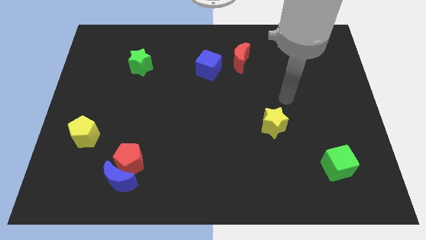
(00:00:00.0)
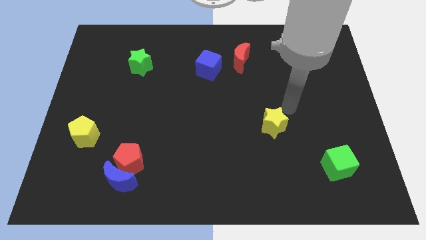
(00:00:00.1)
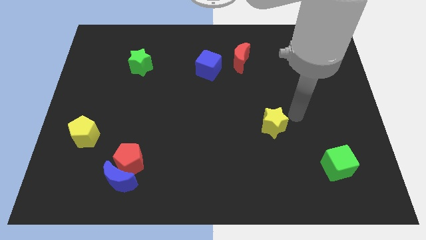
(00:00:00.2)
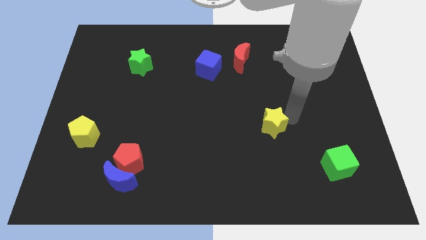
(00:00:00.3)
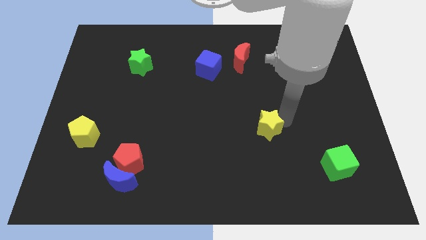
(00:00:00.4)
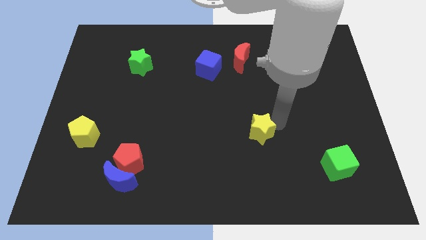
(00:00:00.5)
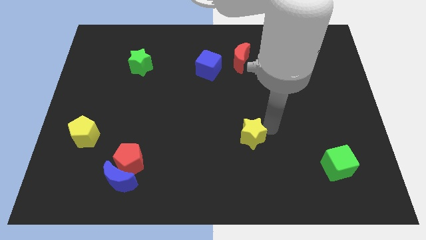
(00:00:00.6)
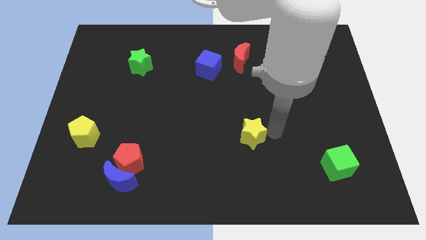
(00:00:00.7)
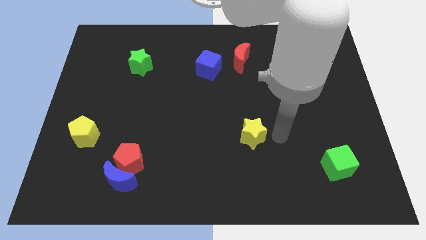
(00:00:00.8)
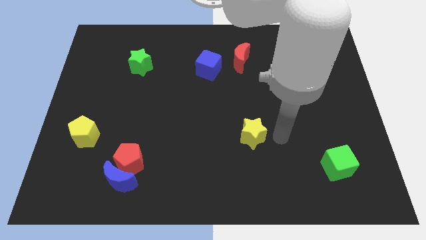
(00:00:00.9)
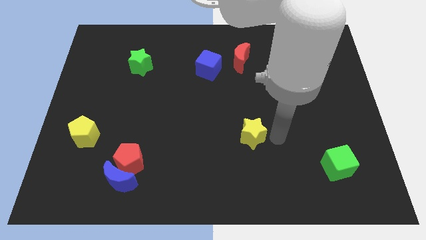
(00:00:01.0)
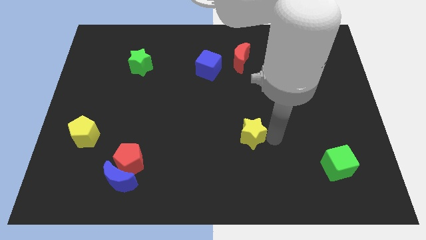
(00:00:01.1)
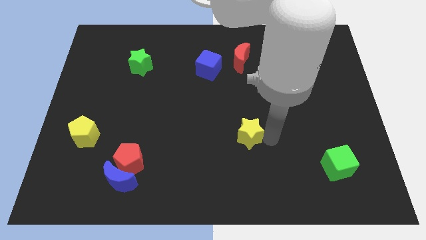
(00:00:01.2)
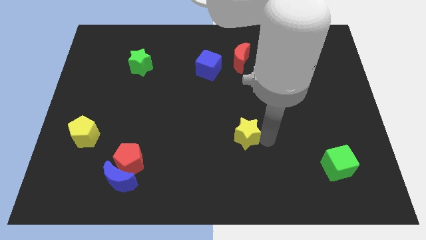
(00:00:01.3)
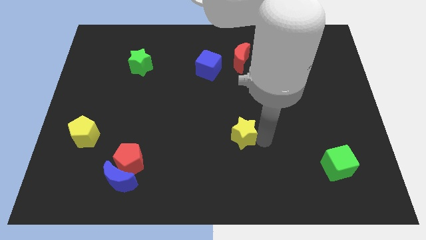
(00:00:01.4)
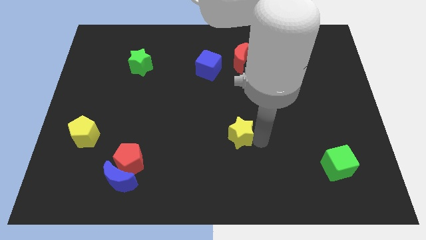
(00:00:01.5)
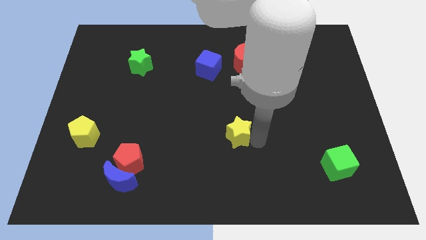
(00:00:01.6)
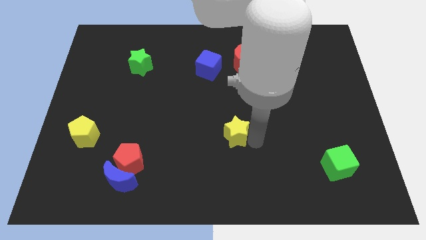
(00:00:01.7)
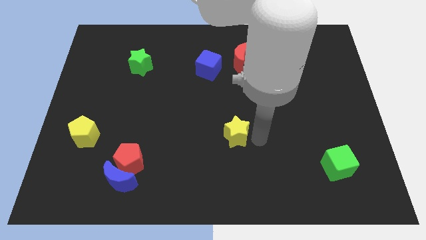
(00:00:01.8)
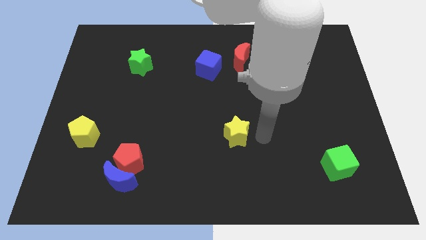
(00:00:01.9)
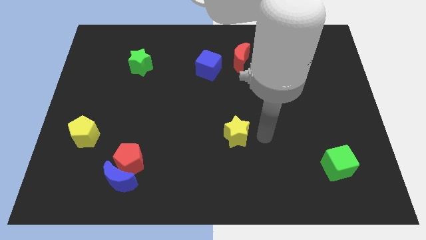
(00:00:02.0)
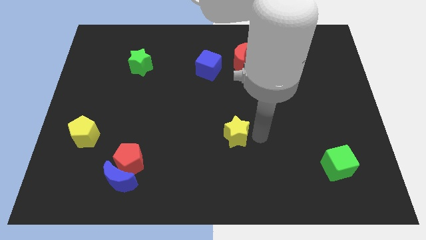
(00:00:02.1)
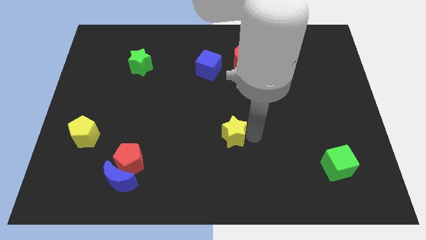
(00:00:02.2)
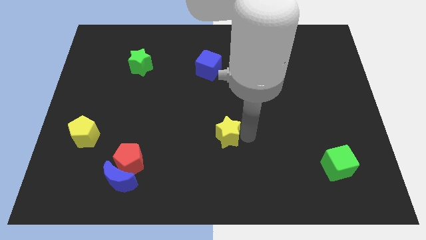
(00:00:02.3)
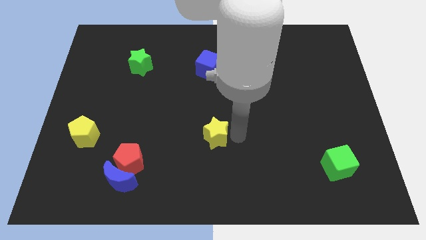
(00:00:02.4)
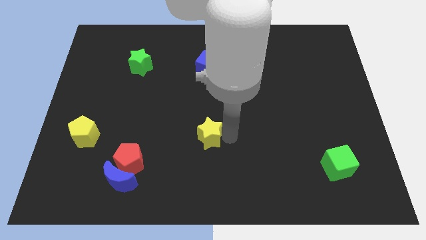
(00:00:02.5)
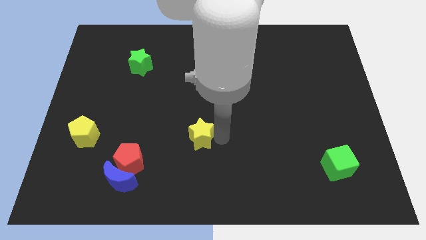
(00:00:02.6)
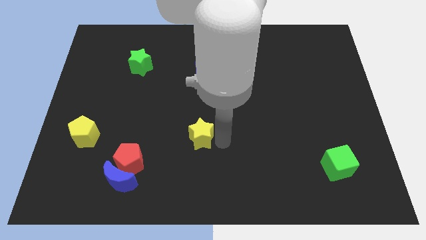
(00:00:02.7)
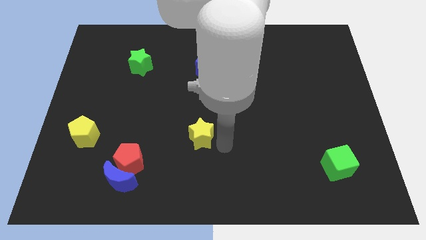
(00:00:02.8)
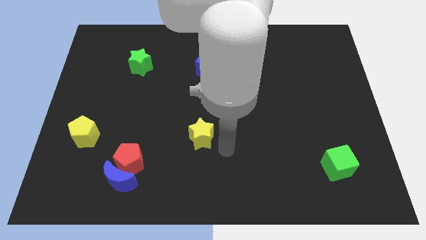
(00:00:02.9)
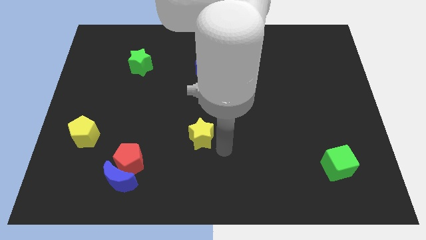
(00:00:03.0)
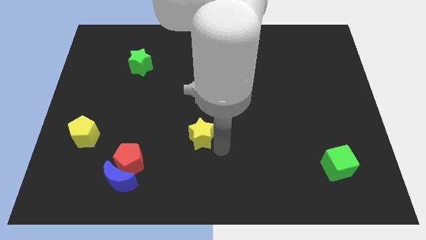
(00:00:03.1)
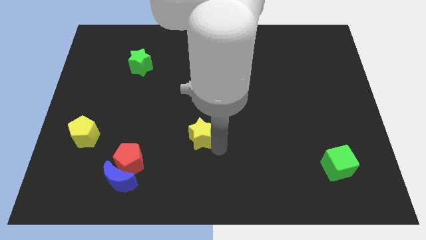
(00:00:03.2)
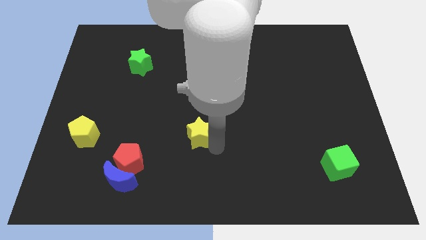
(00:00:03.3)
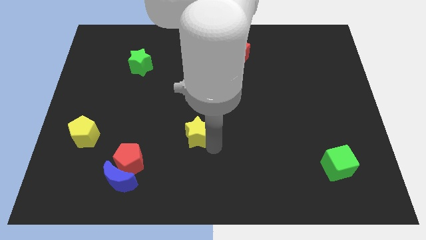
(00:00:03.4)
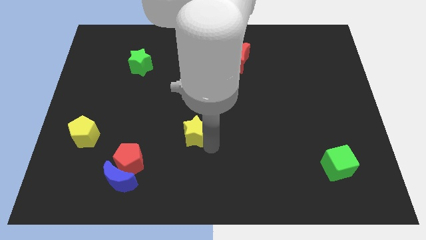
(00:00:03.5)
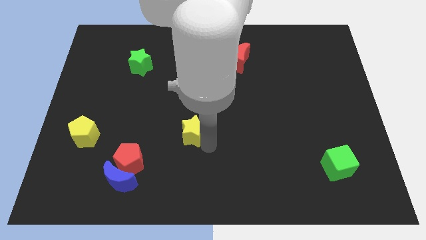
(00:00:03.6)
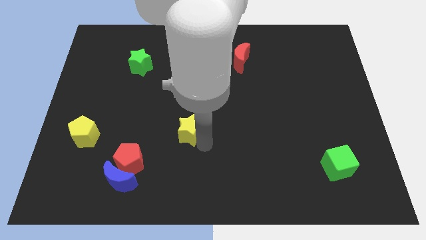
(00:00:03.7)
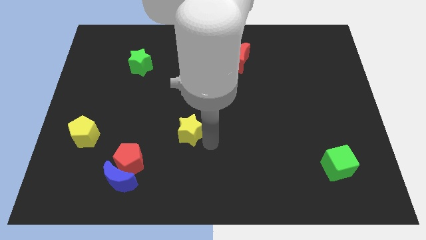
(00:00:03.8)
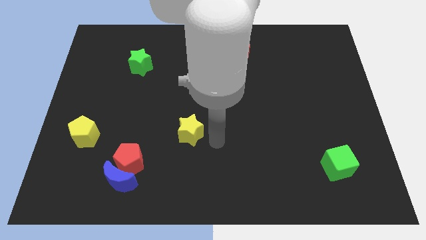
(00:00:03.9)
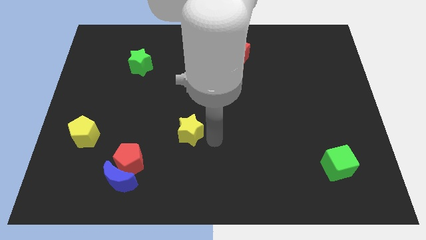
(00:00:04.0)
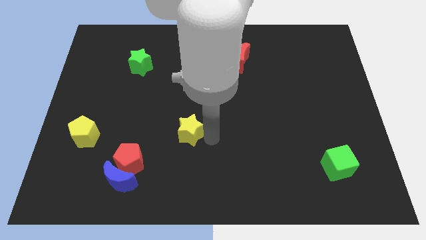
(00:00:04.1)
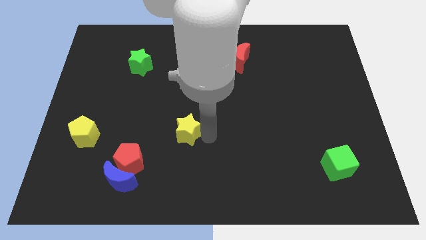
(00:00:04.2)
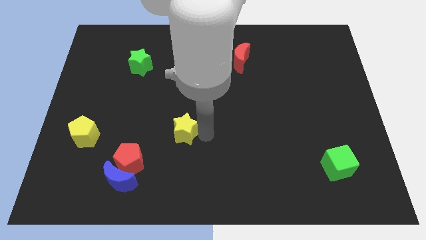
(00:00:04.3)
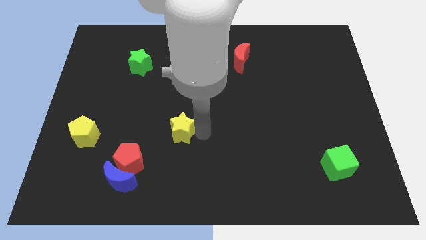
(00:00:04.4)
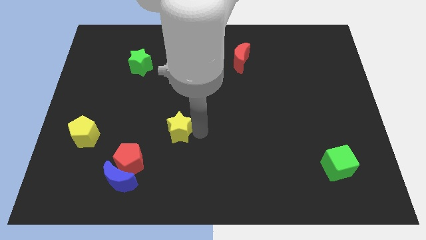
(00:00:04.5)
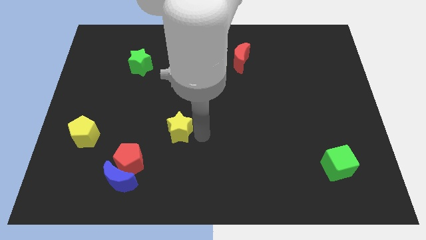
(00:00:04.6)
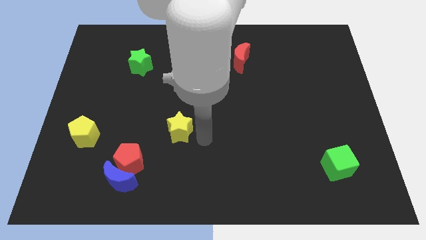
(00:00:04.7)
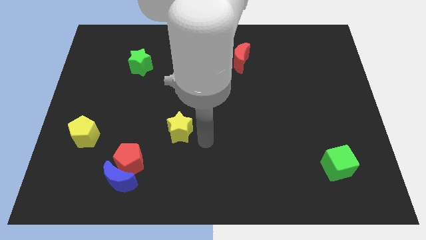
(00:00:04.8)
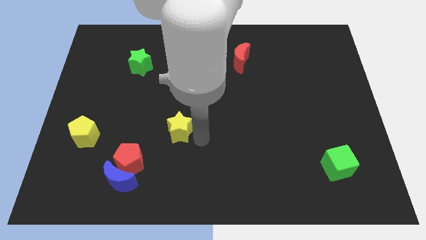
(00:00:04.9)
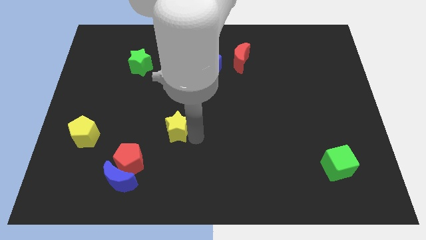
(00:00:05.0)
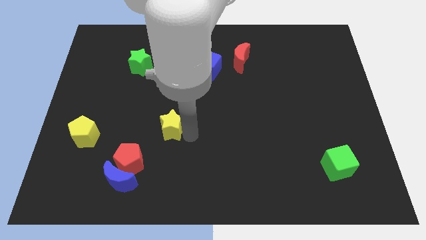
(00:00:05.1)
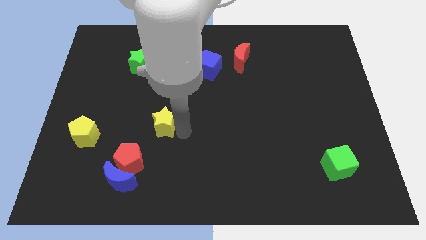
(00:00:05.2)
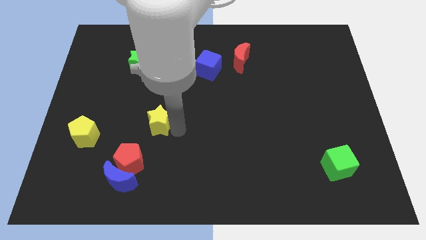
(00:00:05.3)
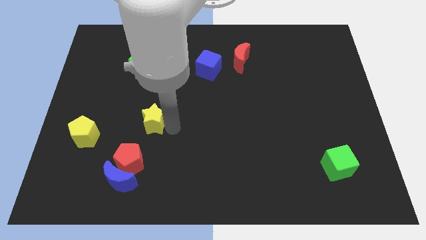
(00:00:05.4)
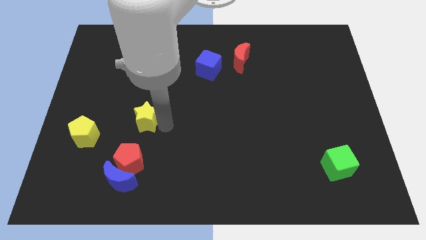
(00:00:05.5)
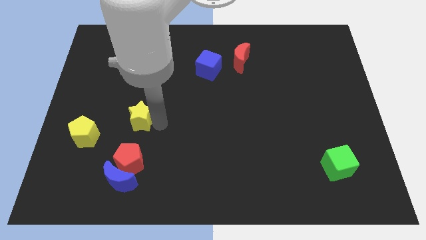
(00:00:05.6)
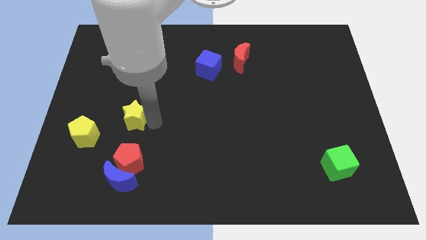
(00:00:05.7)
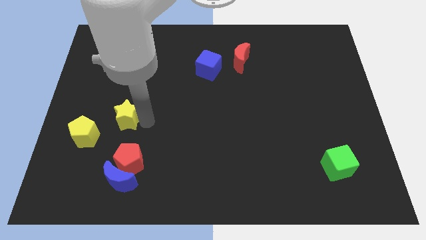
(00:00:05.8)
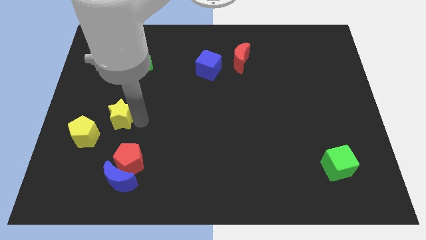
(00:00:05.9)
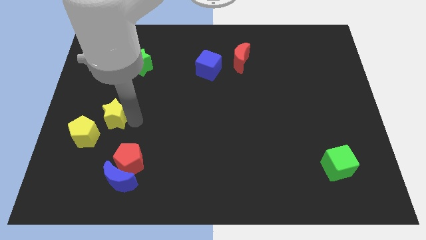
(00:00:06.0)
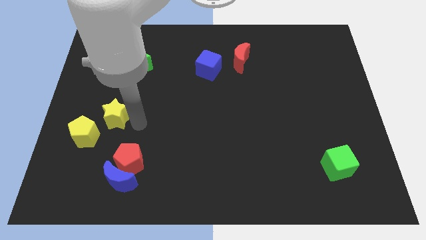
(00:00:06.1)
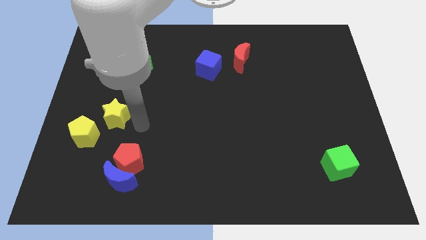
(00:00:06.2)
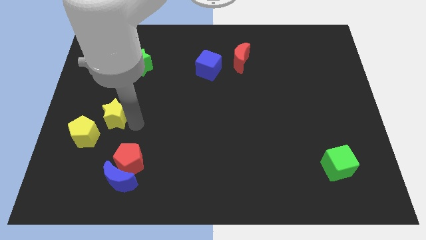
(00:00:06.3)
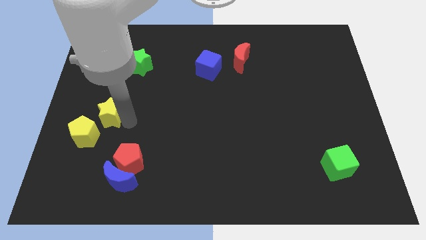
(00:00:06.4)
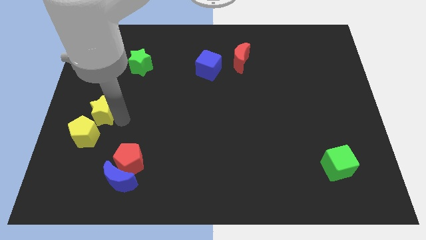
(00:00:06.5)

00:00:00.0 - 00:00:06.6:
move the yellow star to the left side

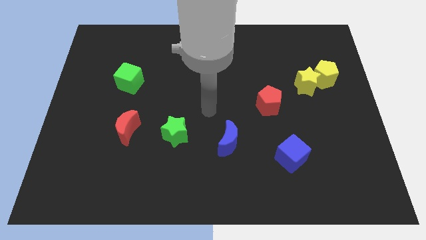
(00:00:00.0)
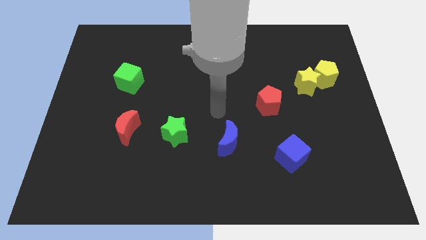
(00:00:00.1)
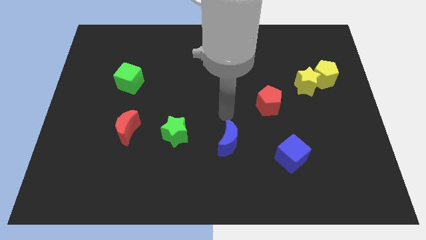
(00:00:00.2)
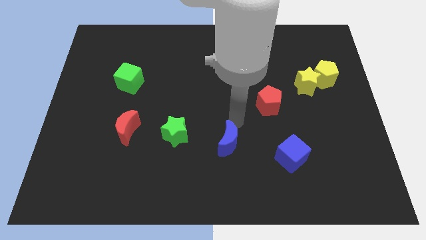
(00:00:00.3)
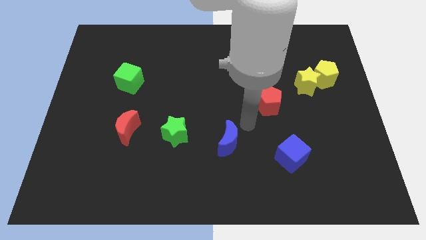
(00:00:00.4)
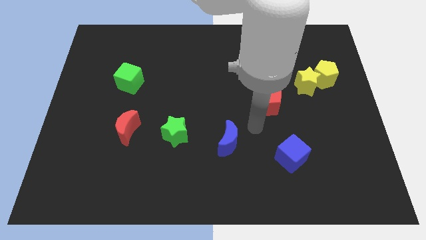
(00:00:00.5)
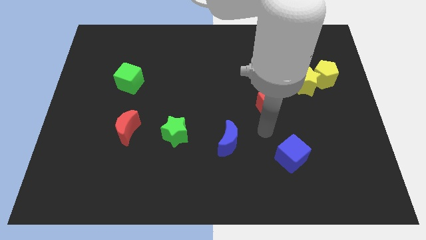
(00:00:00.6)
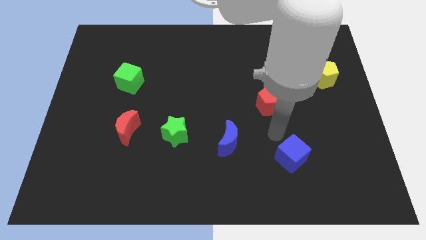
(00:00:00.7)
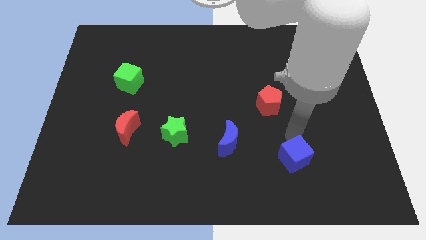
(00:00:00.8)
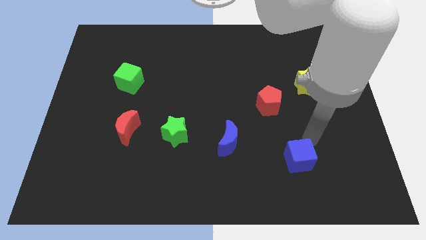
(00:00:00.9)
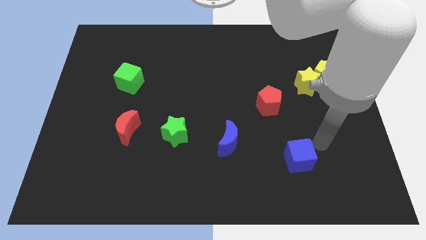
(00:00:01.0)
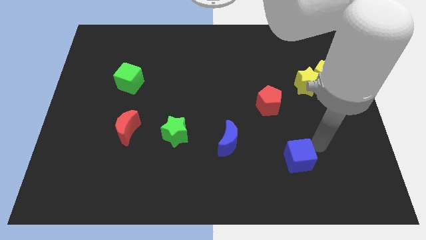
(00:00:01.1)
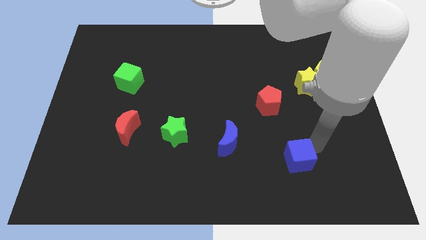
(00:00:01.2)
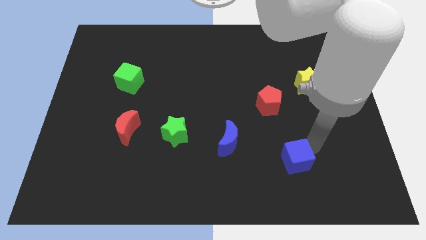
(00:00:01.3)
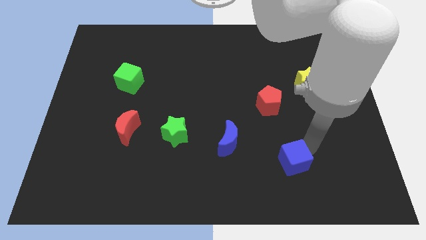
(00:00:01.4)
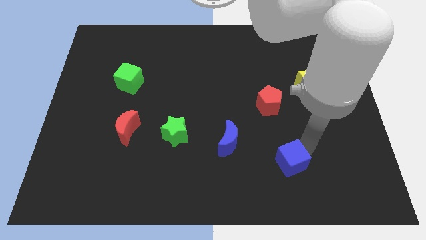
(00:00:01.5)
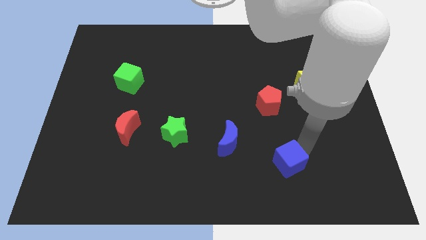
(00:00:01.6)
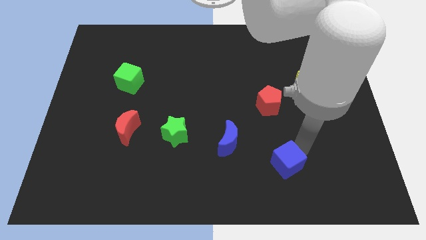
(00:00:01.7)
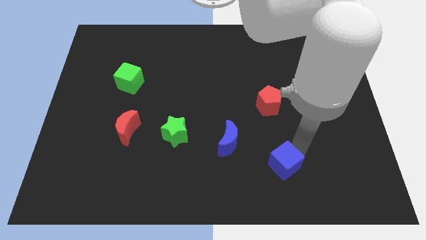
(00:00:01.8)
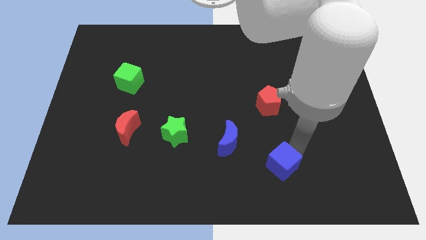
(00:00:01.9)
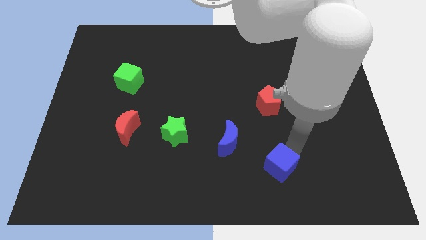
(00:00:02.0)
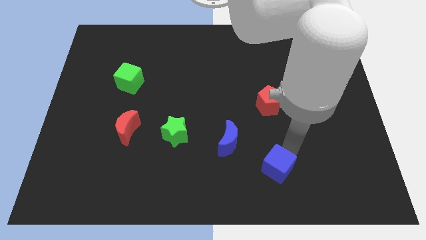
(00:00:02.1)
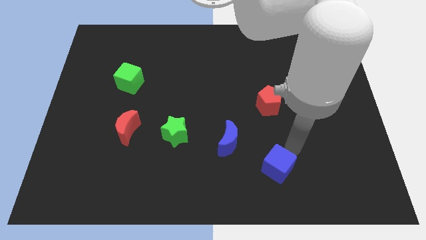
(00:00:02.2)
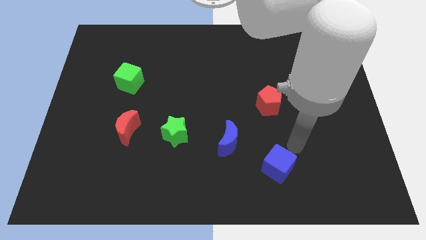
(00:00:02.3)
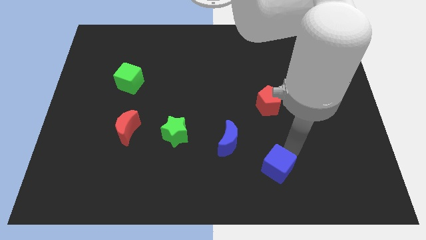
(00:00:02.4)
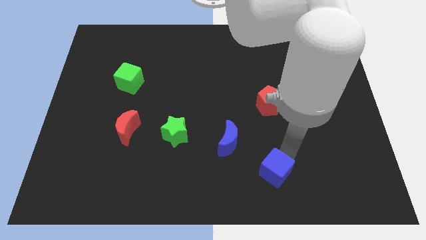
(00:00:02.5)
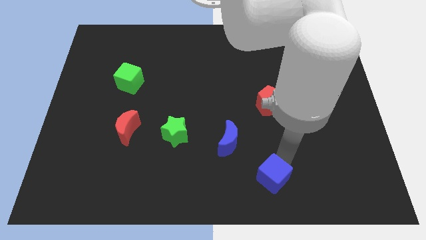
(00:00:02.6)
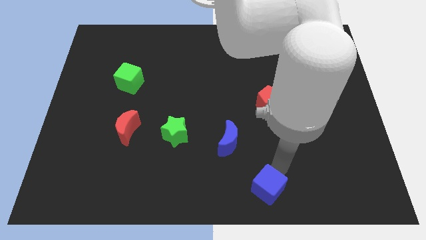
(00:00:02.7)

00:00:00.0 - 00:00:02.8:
put the blue cube to the bottom
